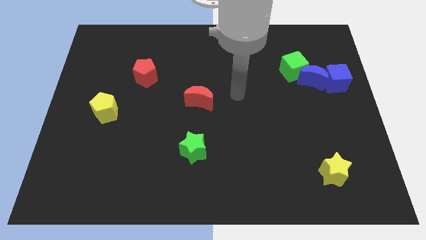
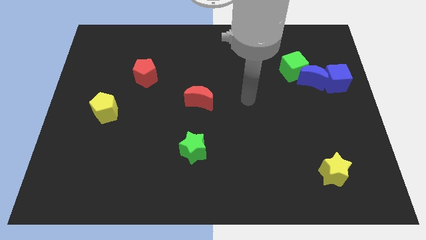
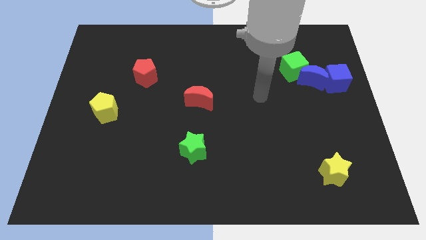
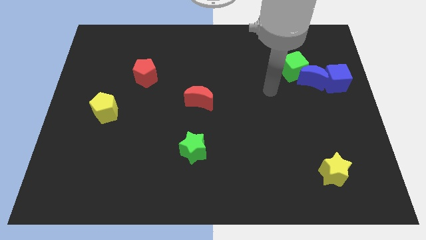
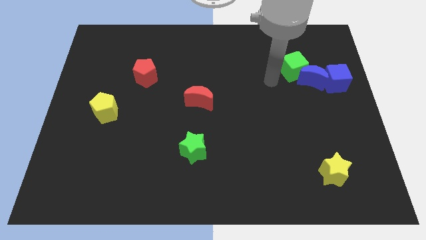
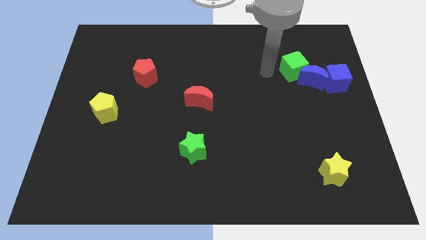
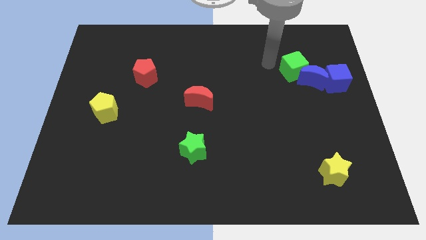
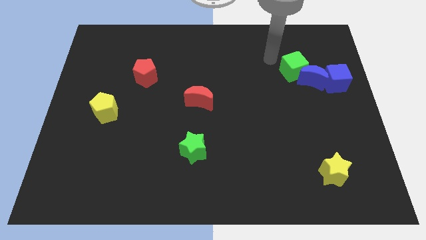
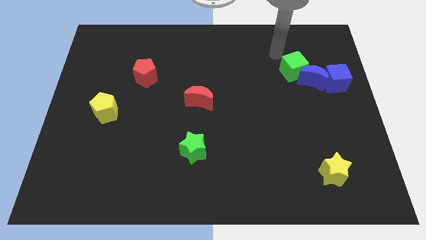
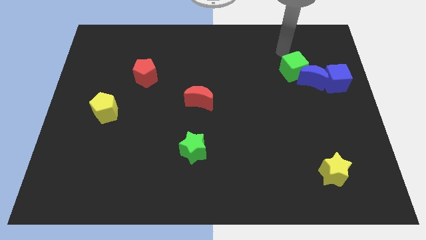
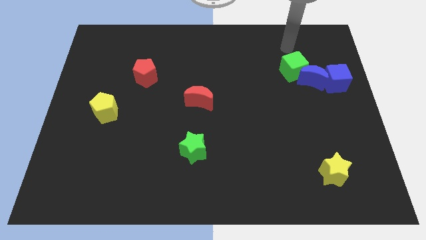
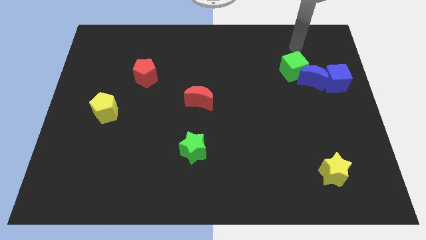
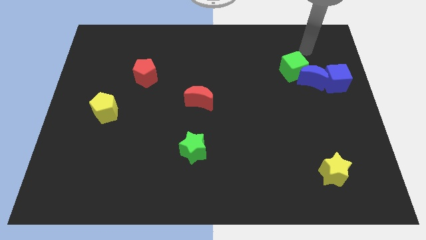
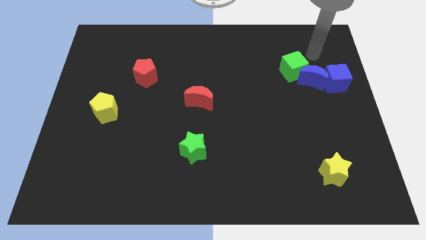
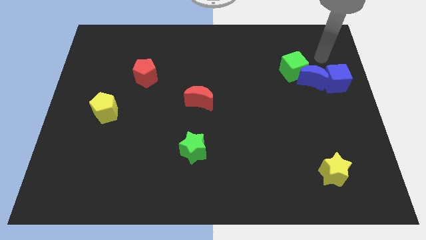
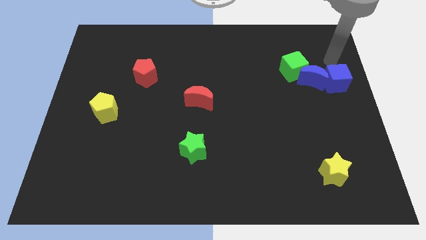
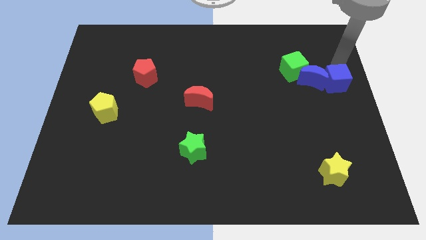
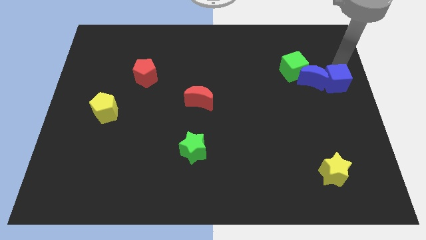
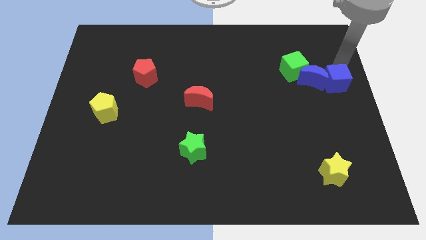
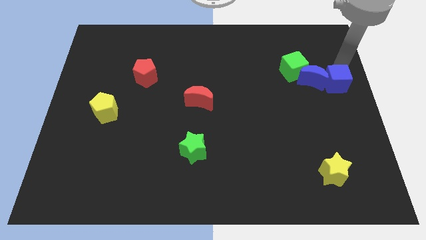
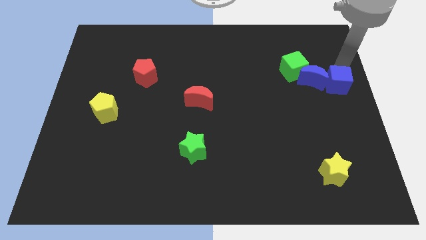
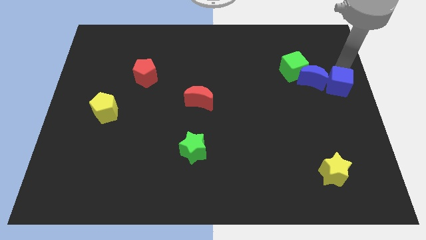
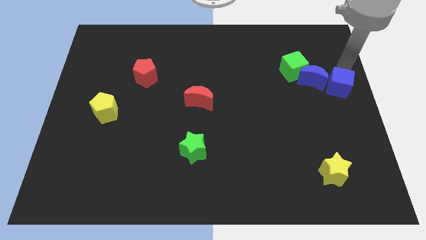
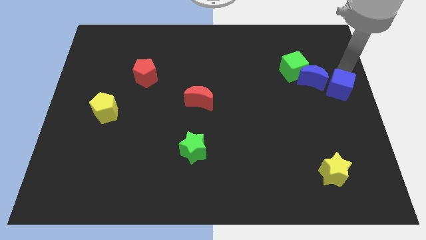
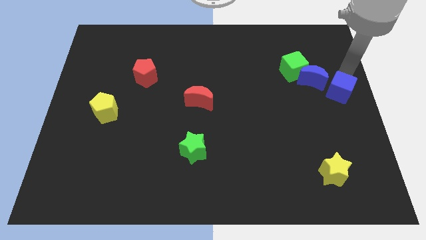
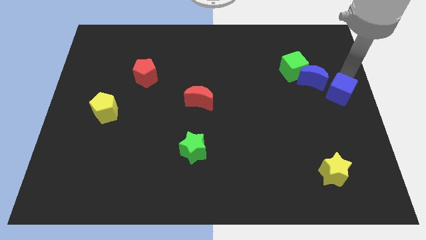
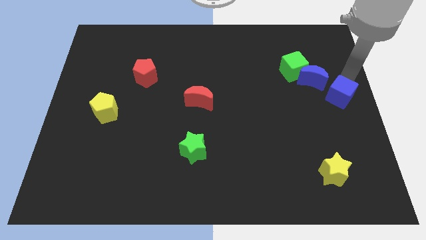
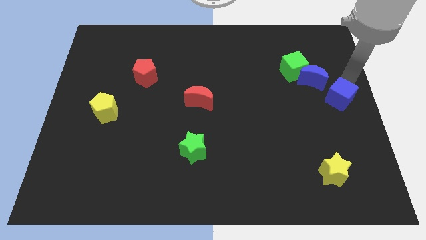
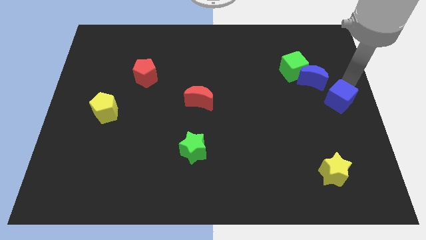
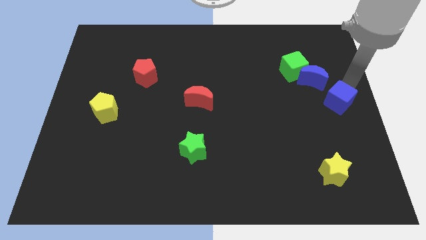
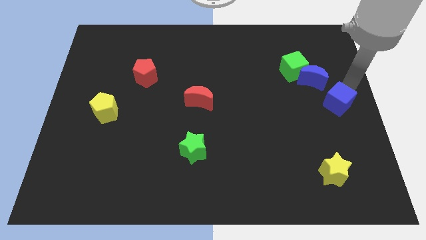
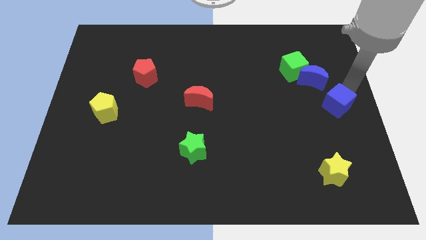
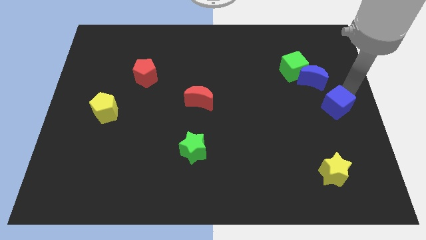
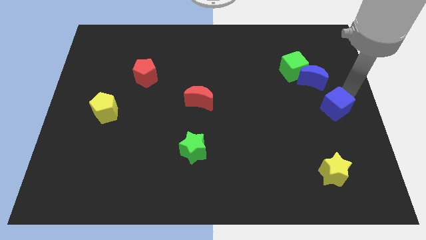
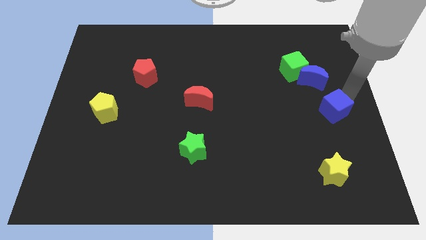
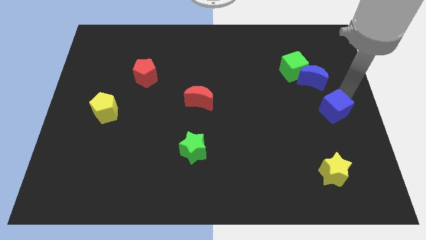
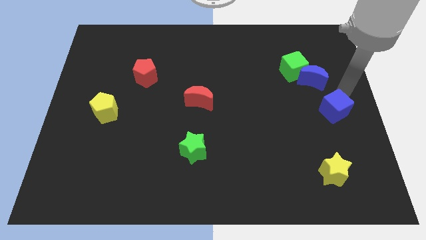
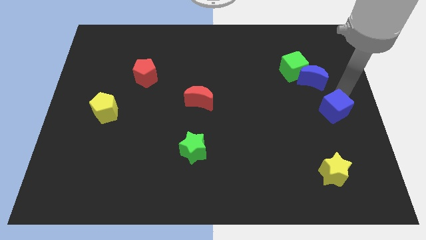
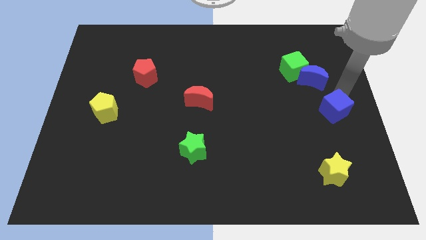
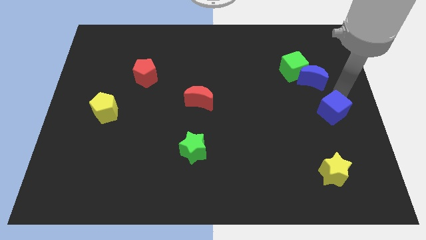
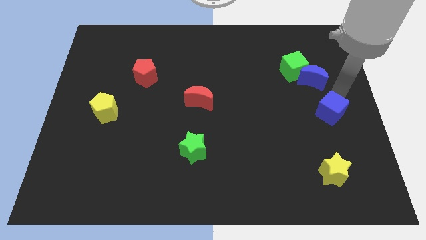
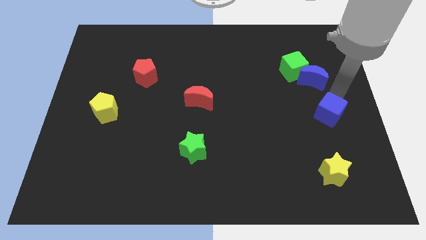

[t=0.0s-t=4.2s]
slide the blue cube above the yellow star

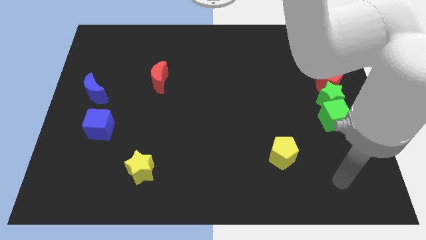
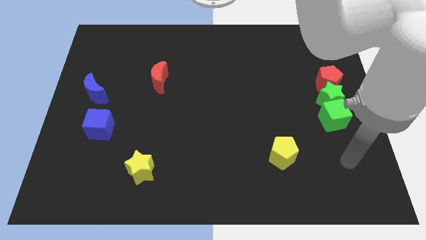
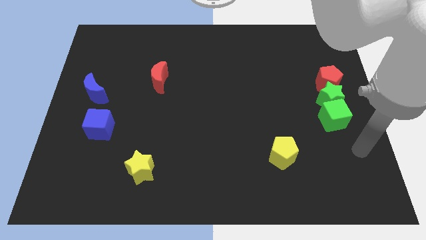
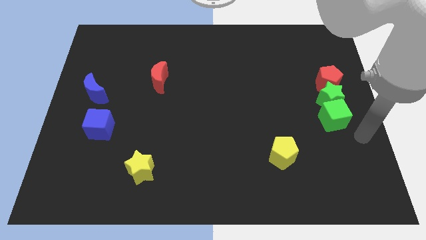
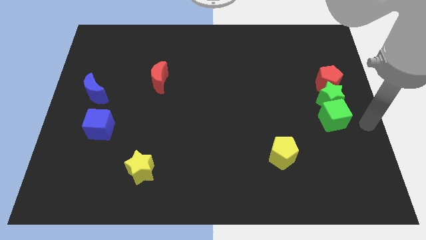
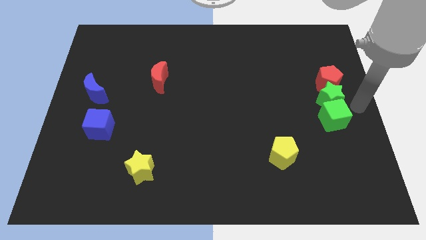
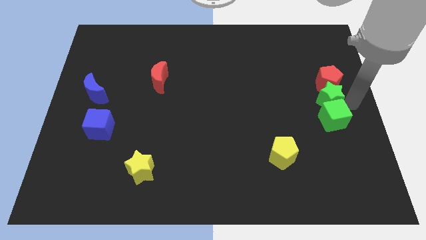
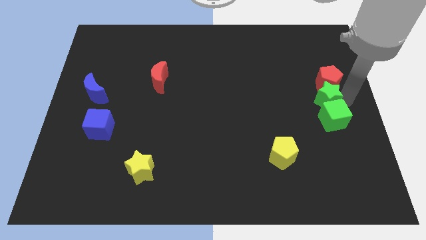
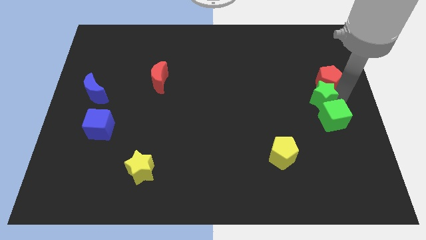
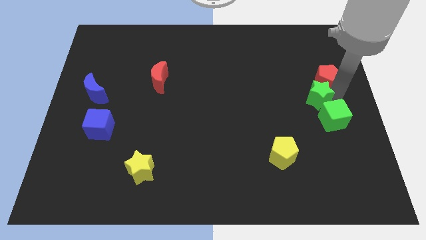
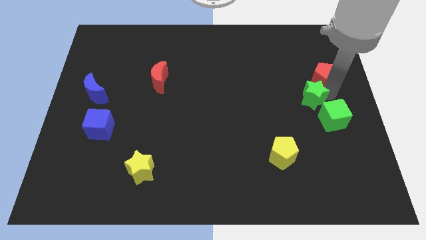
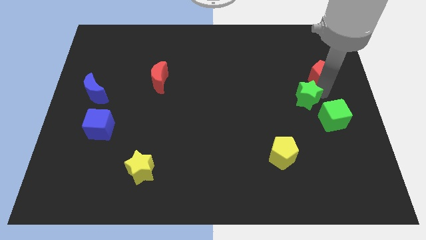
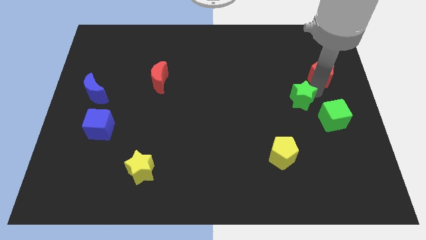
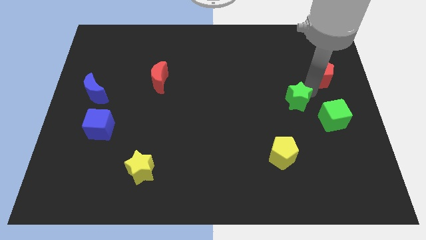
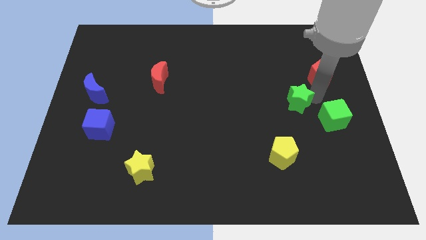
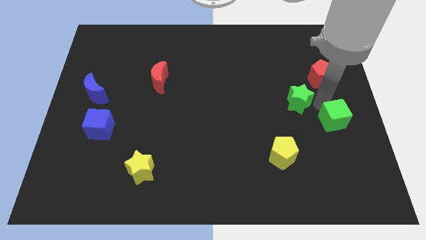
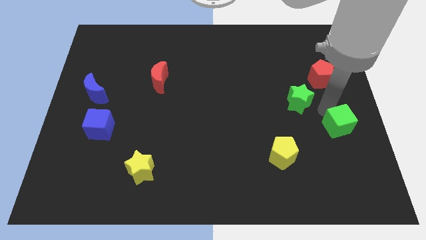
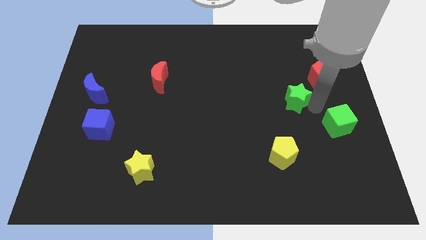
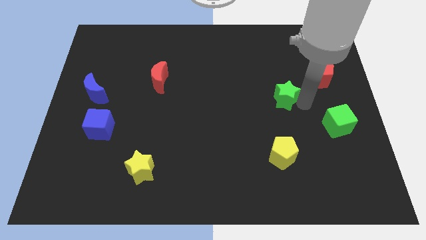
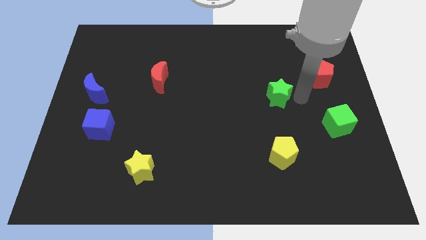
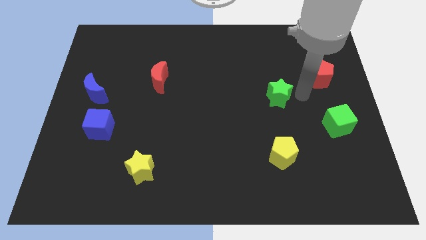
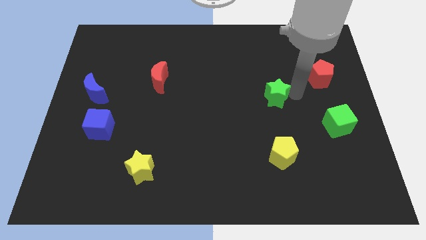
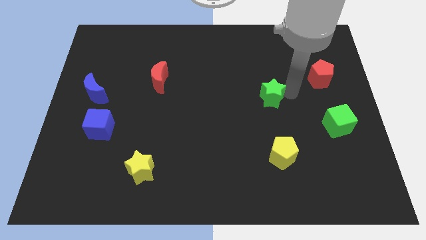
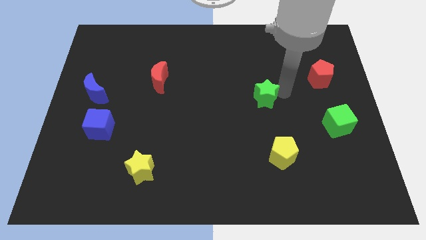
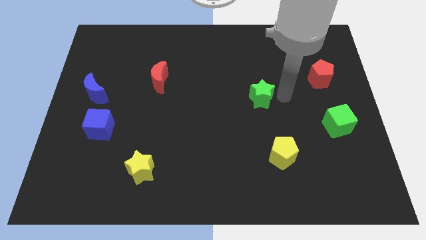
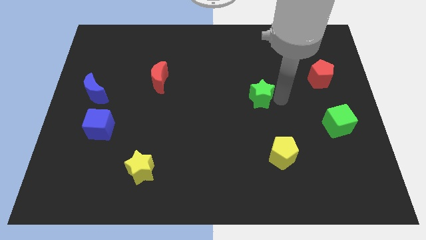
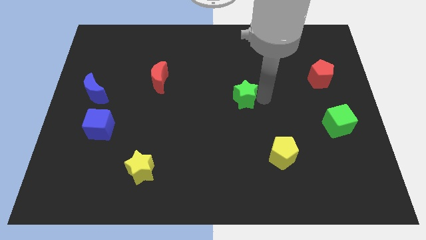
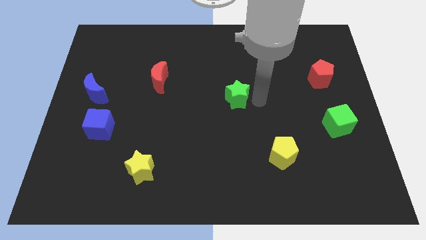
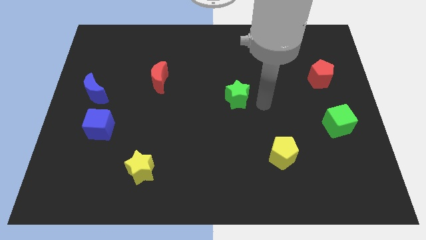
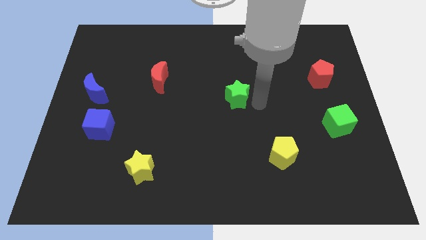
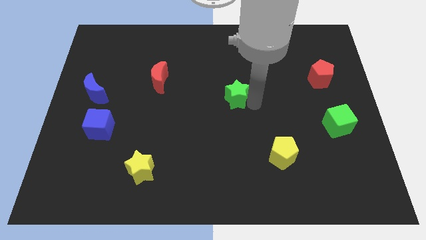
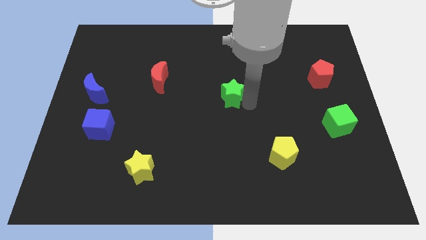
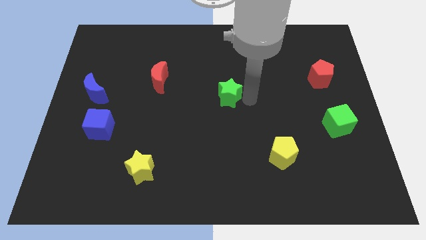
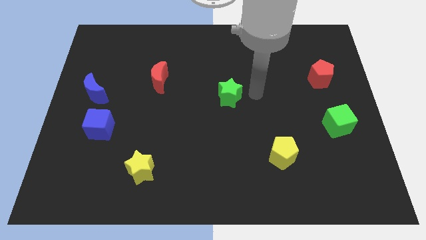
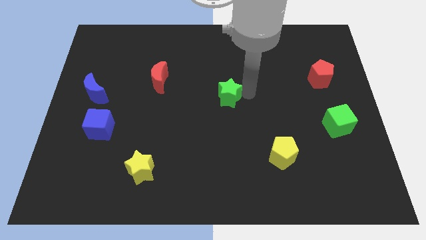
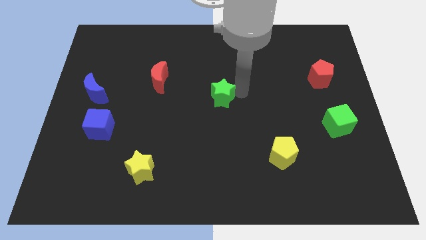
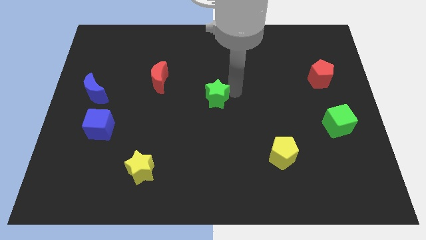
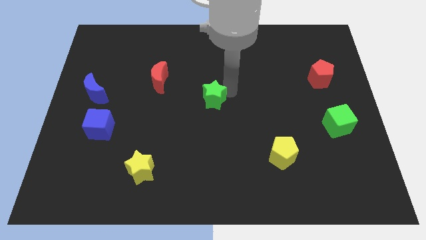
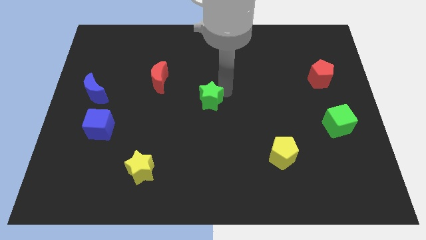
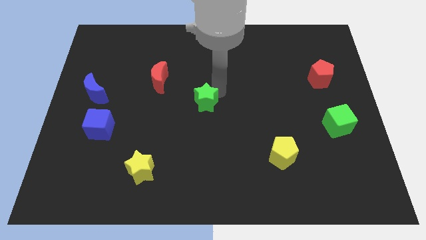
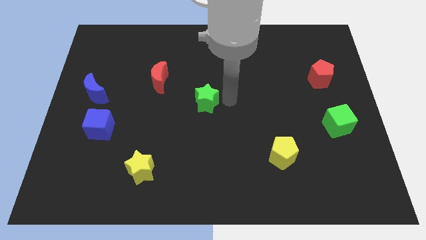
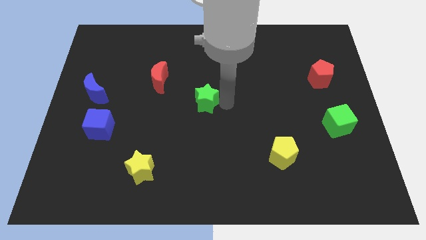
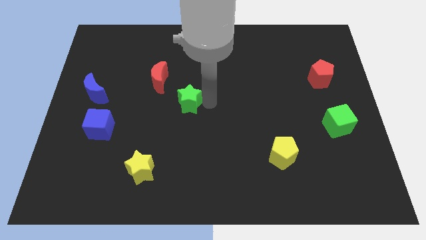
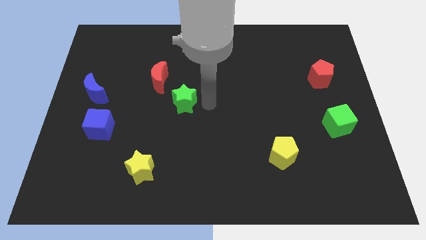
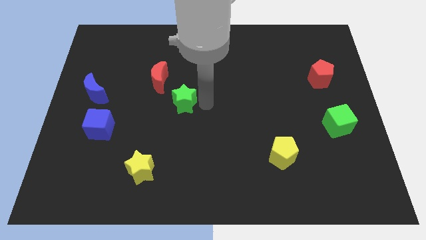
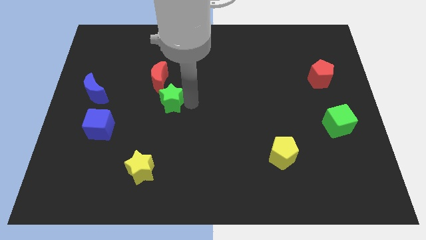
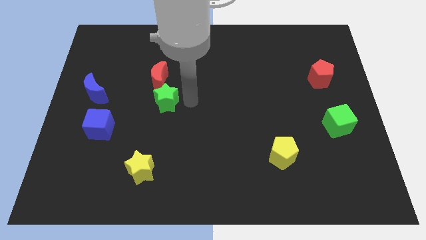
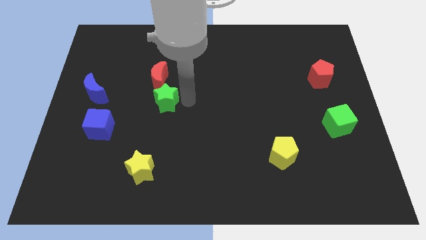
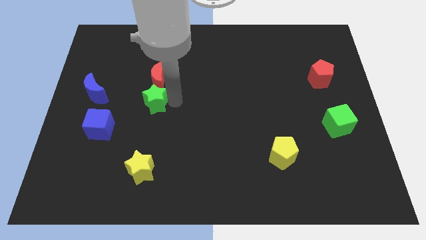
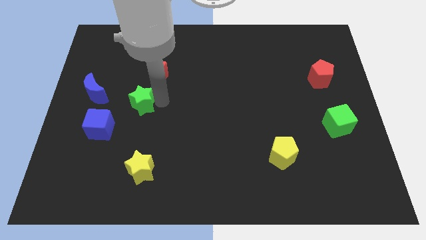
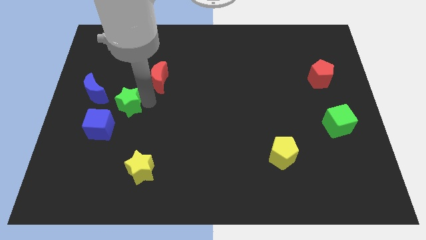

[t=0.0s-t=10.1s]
push the green star to the bottom right of the blue moon
